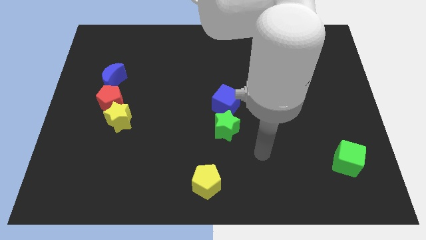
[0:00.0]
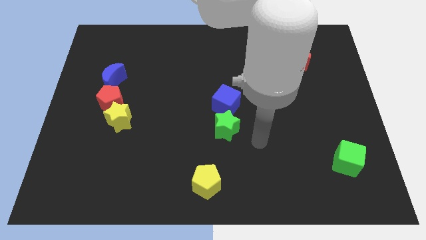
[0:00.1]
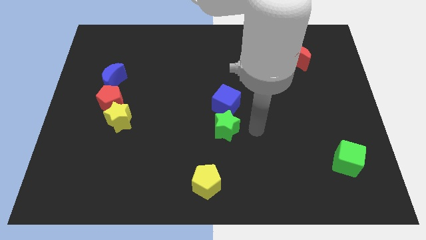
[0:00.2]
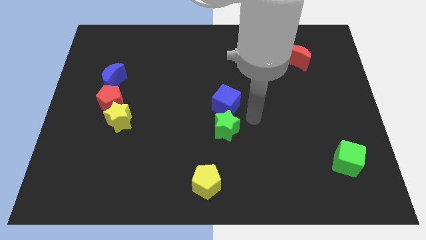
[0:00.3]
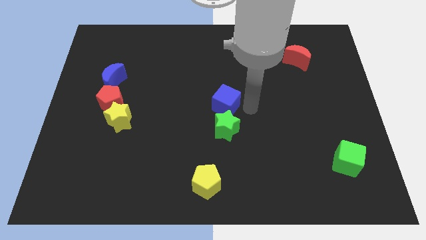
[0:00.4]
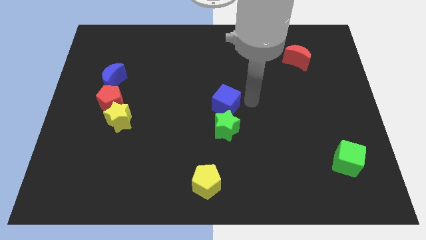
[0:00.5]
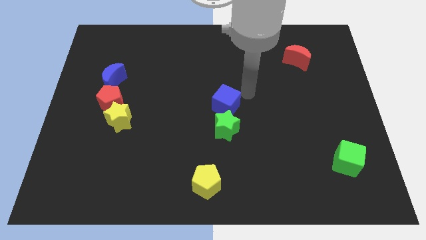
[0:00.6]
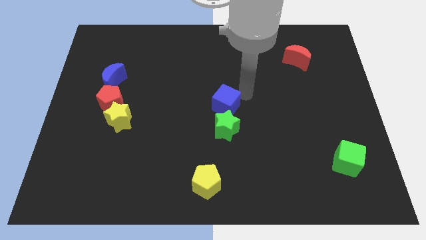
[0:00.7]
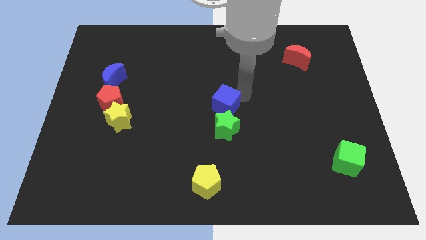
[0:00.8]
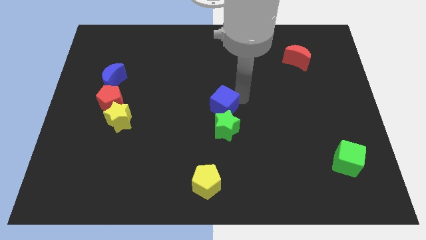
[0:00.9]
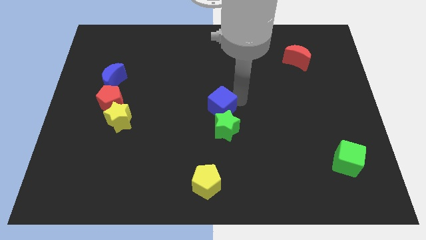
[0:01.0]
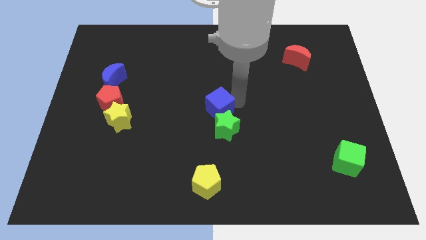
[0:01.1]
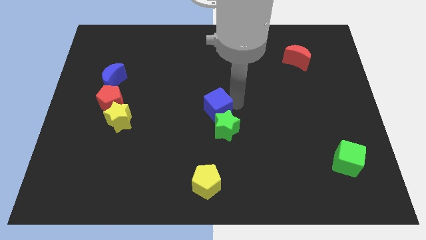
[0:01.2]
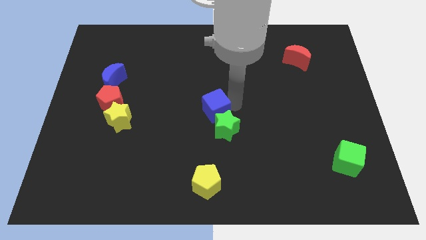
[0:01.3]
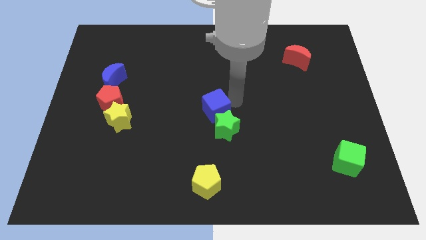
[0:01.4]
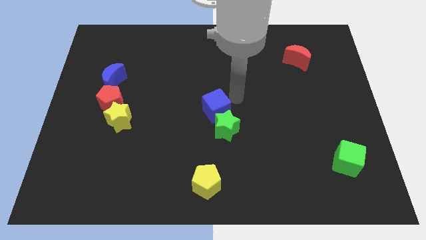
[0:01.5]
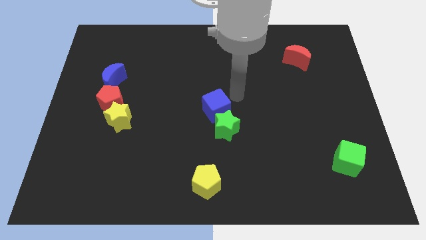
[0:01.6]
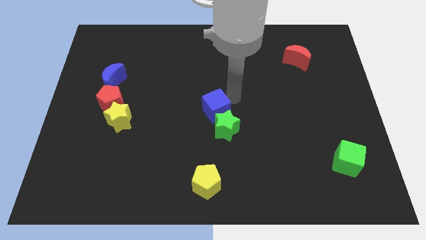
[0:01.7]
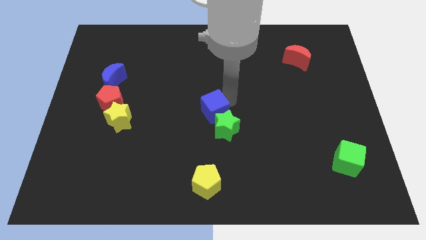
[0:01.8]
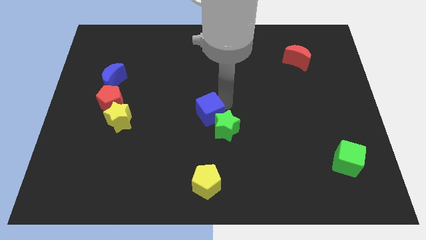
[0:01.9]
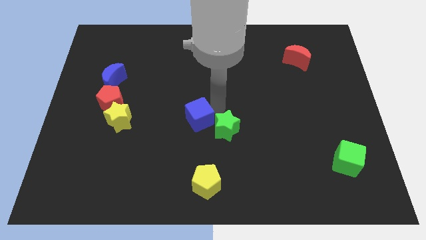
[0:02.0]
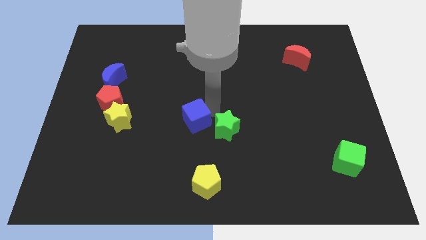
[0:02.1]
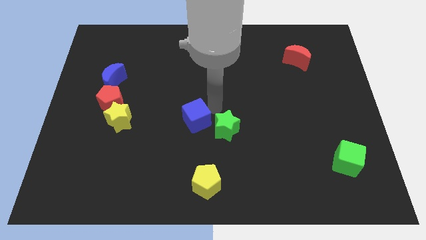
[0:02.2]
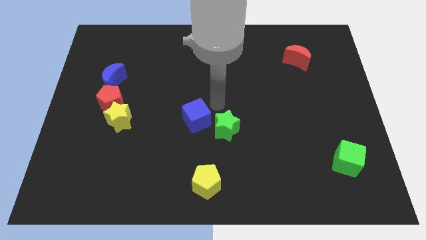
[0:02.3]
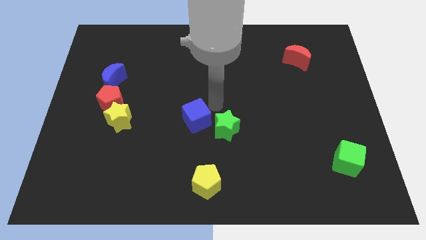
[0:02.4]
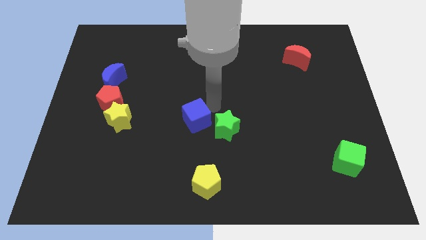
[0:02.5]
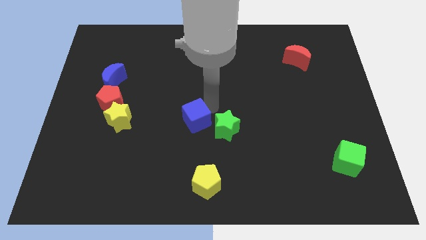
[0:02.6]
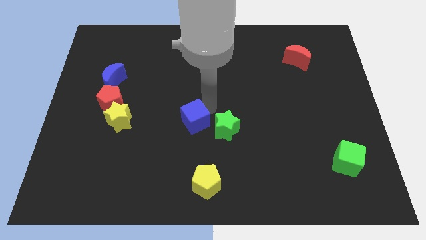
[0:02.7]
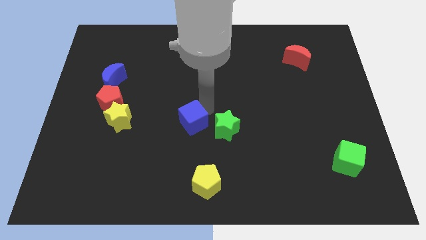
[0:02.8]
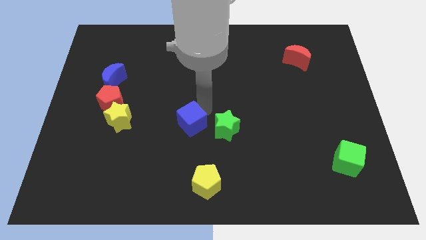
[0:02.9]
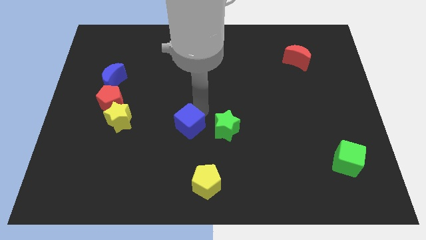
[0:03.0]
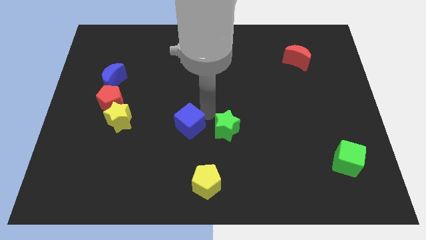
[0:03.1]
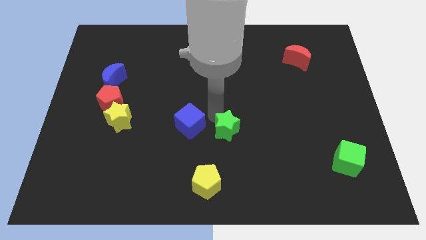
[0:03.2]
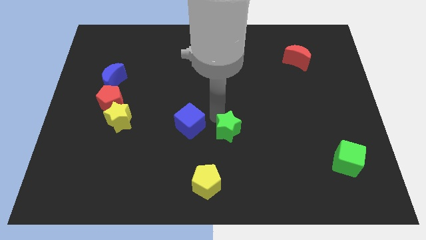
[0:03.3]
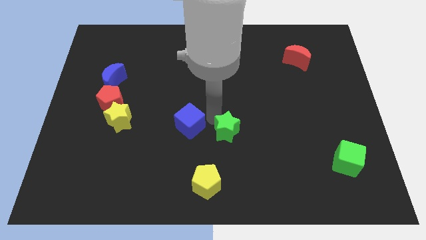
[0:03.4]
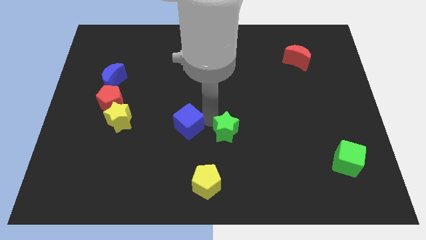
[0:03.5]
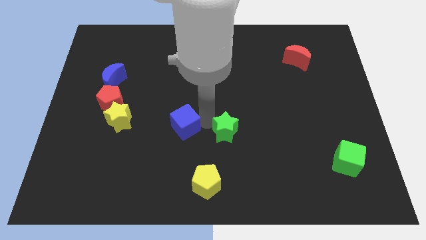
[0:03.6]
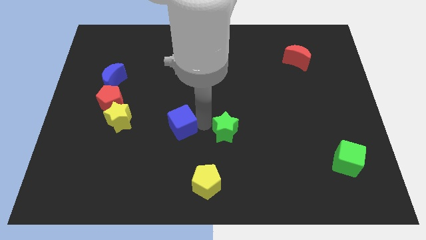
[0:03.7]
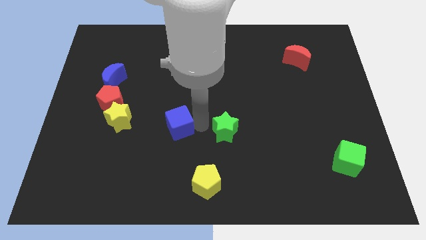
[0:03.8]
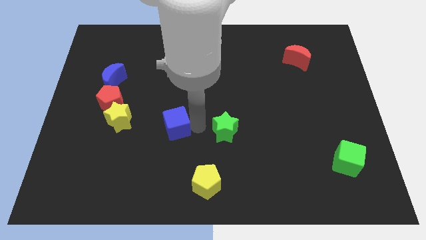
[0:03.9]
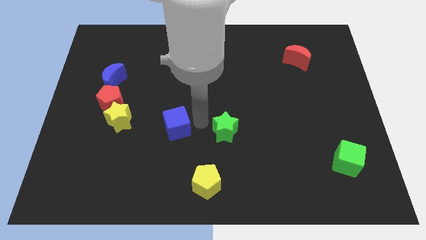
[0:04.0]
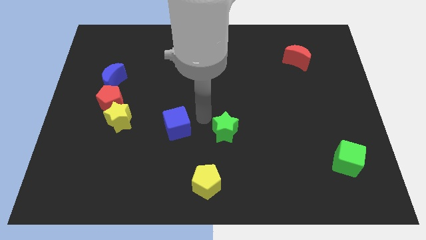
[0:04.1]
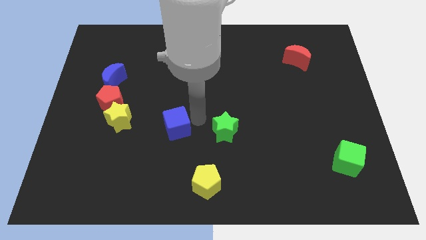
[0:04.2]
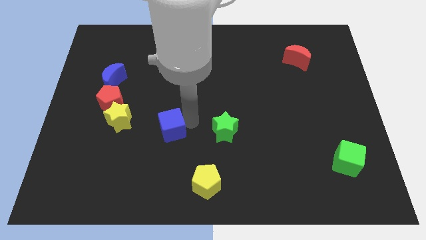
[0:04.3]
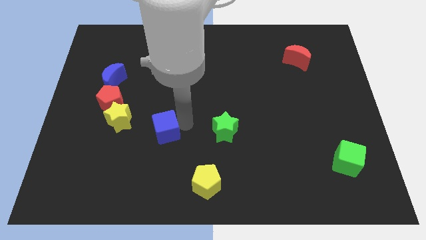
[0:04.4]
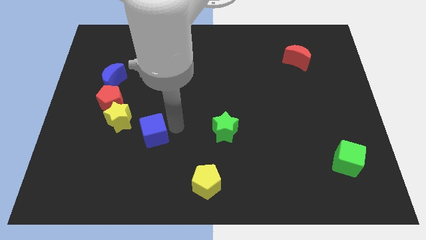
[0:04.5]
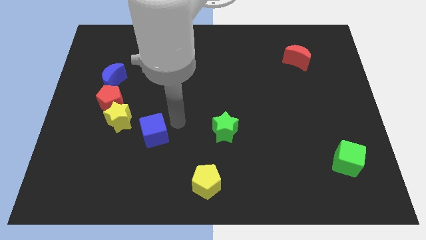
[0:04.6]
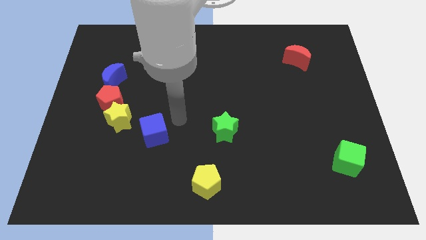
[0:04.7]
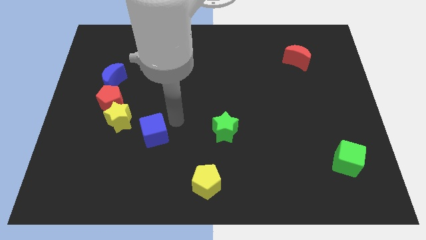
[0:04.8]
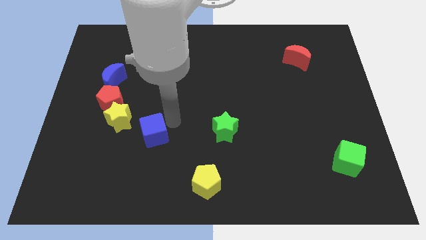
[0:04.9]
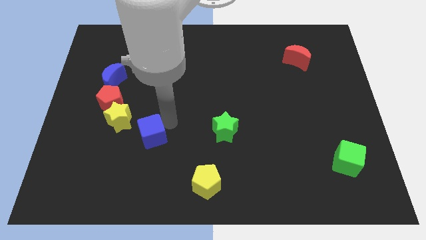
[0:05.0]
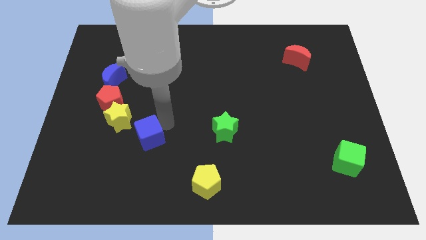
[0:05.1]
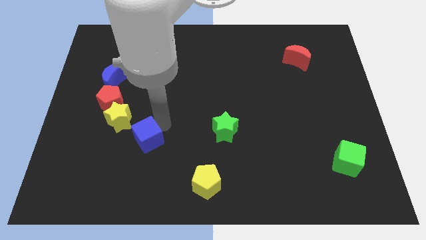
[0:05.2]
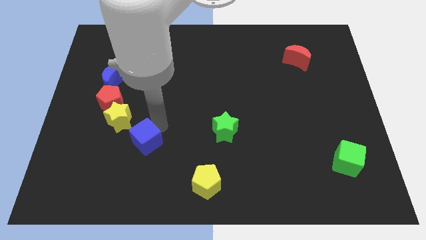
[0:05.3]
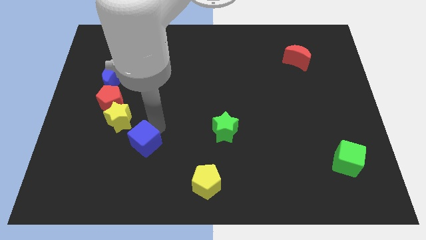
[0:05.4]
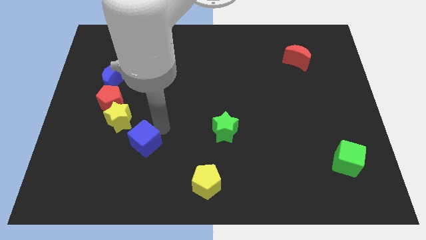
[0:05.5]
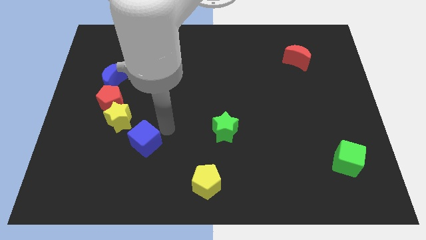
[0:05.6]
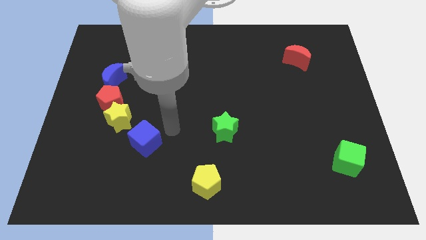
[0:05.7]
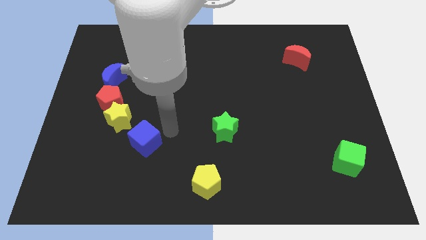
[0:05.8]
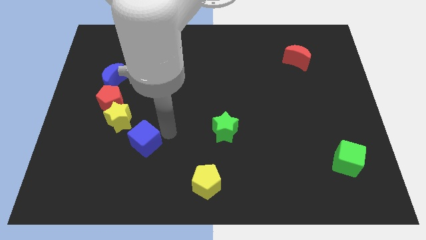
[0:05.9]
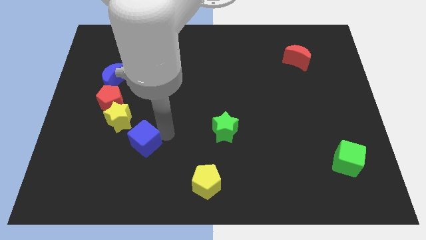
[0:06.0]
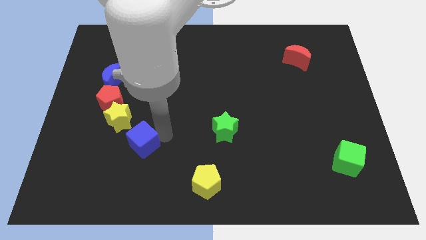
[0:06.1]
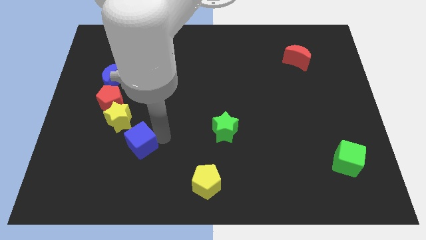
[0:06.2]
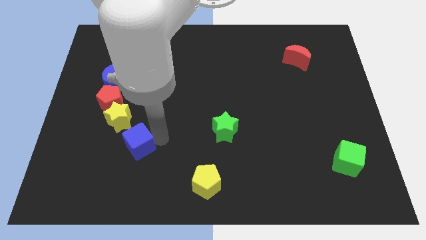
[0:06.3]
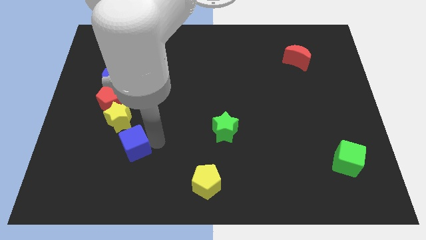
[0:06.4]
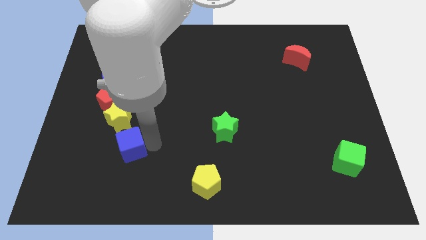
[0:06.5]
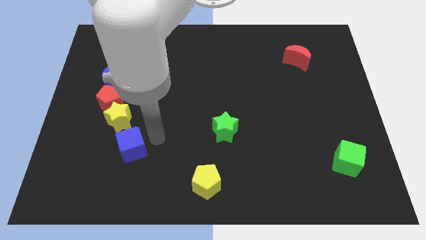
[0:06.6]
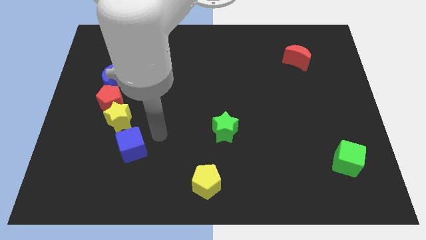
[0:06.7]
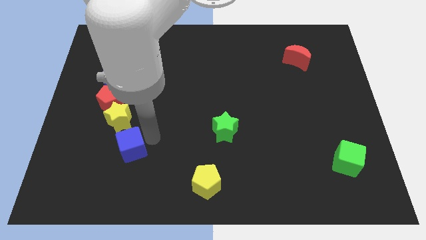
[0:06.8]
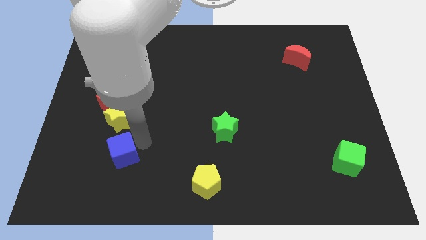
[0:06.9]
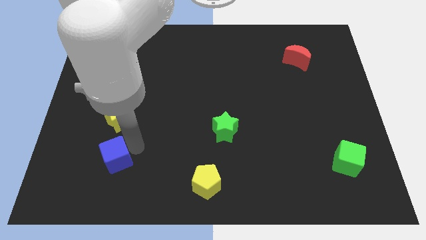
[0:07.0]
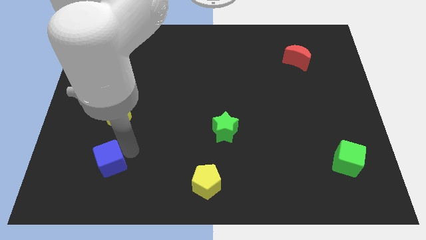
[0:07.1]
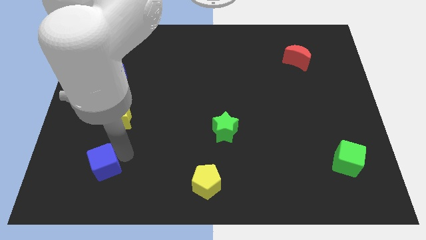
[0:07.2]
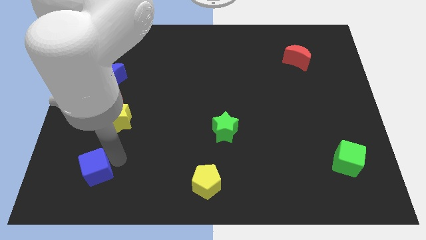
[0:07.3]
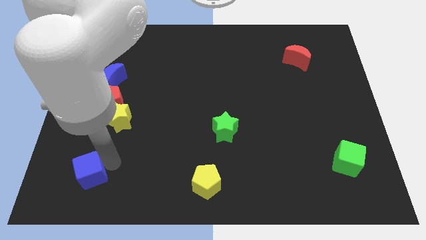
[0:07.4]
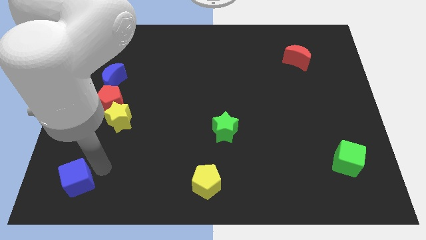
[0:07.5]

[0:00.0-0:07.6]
slide the blue cube to the bottom left corner
